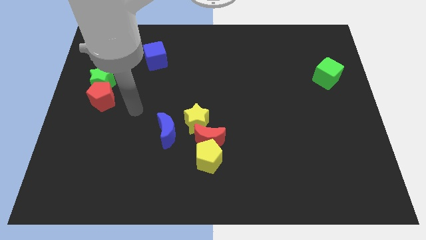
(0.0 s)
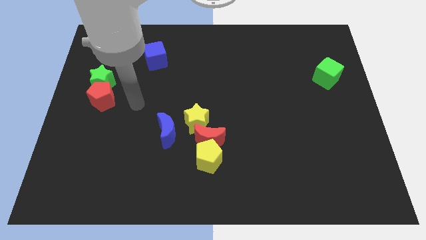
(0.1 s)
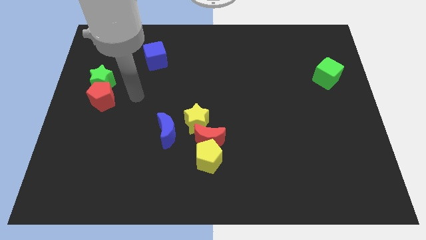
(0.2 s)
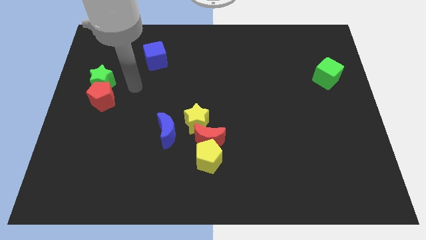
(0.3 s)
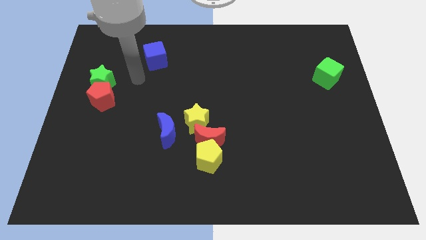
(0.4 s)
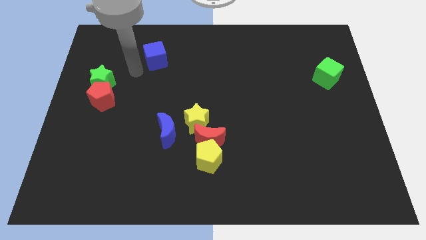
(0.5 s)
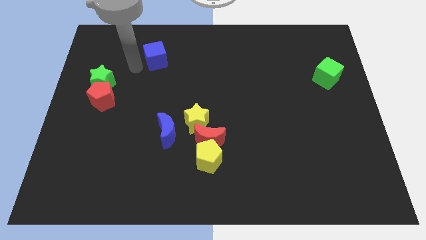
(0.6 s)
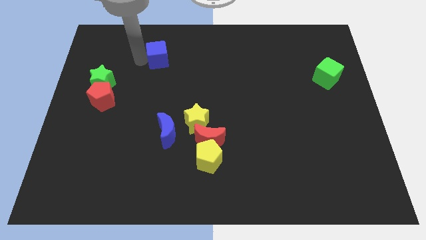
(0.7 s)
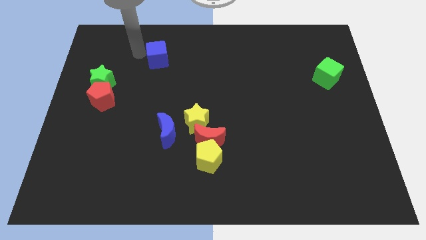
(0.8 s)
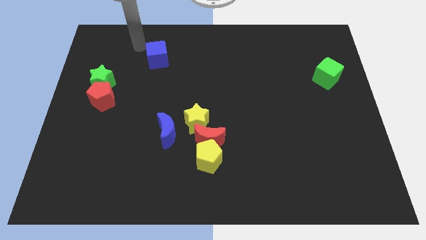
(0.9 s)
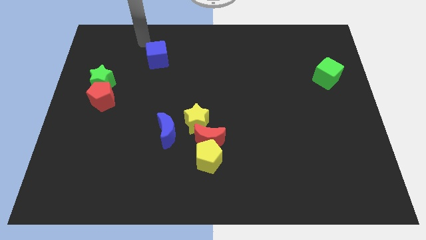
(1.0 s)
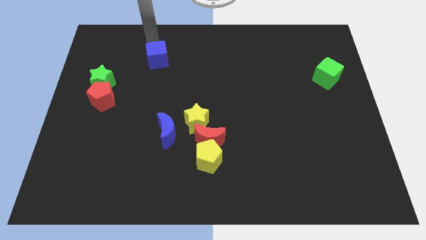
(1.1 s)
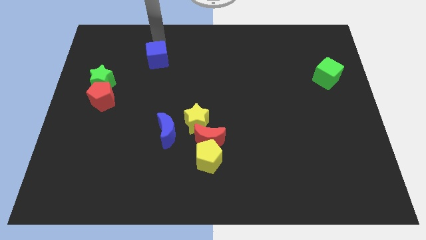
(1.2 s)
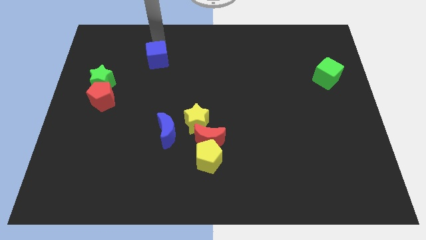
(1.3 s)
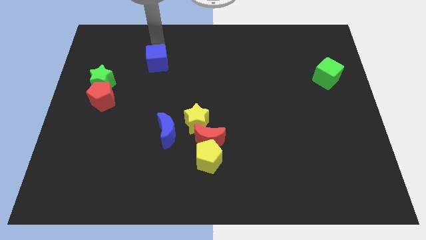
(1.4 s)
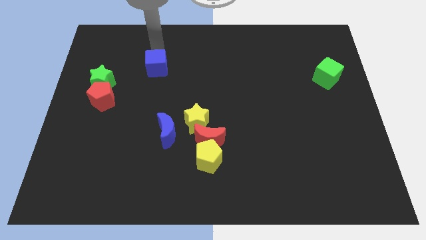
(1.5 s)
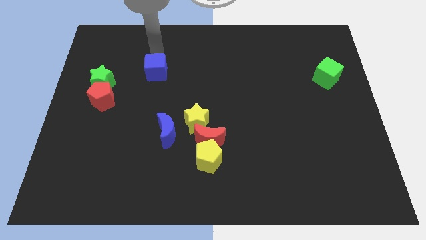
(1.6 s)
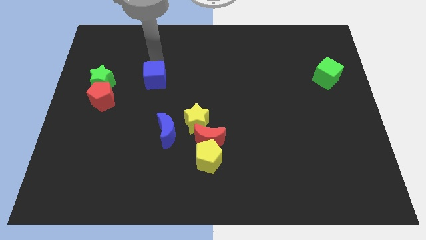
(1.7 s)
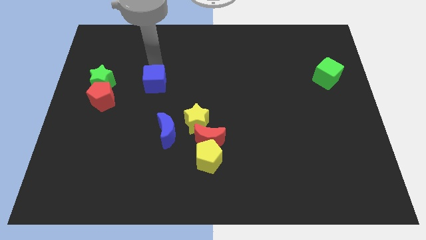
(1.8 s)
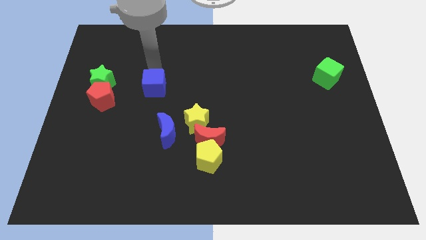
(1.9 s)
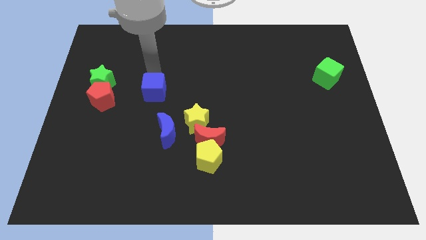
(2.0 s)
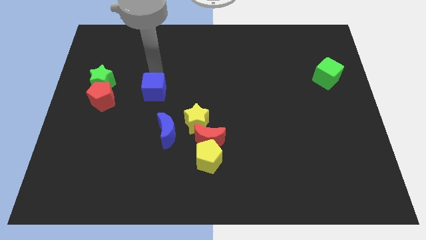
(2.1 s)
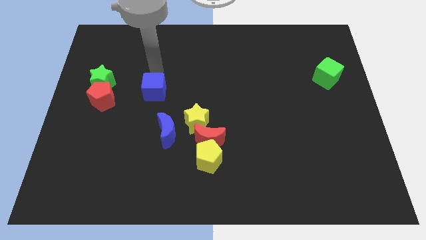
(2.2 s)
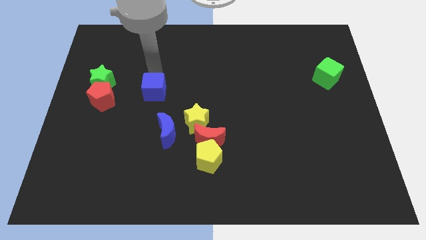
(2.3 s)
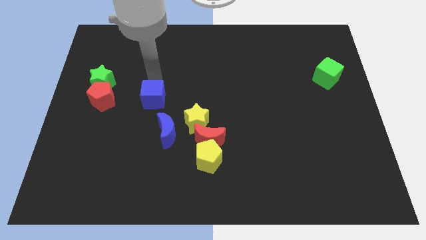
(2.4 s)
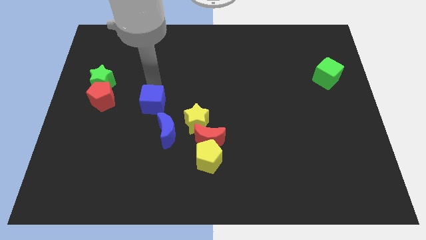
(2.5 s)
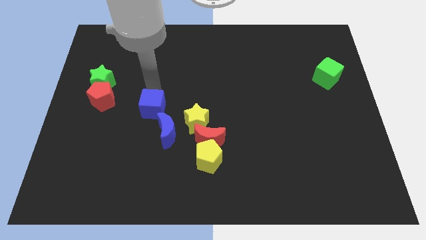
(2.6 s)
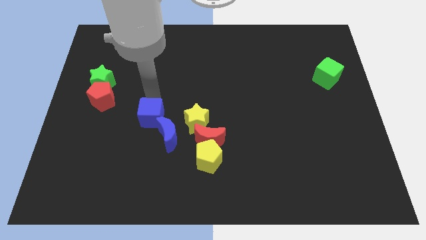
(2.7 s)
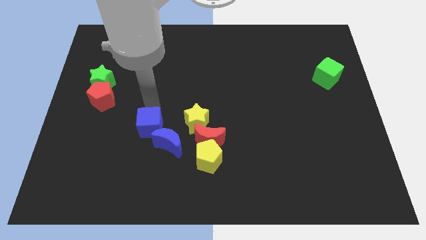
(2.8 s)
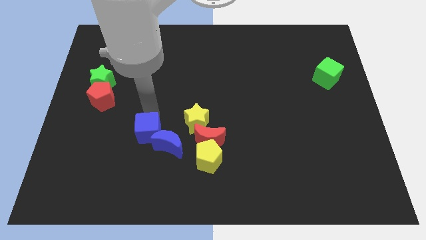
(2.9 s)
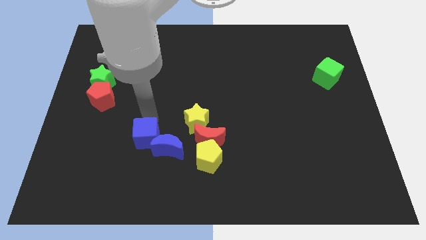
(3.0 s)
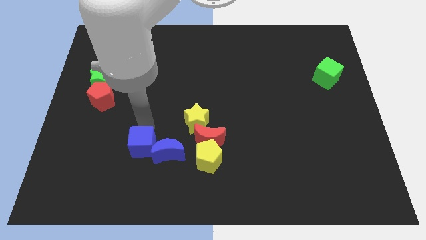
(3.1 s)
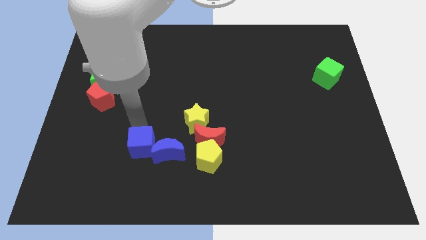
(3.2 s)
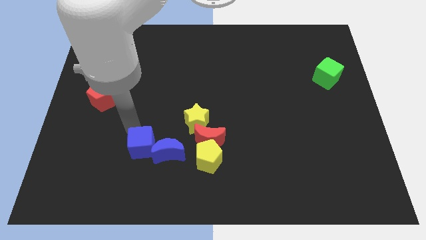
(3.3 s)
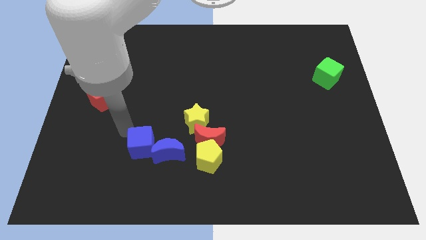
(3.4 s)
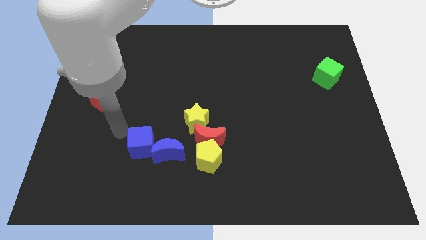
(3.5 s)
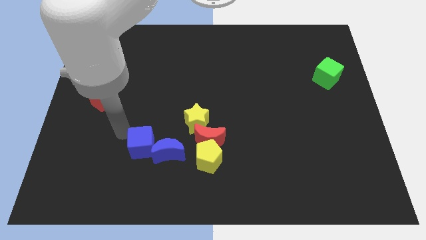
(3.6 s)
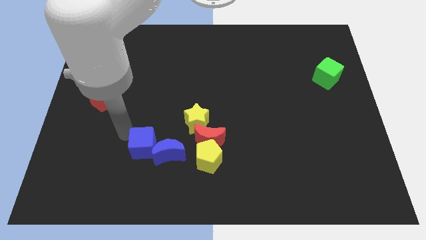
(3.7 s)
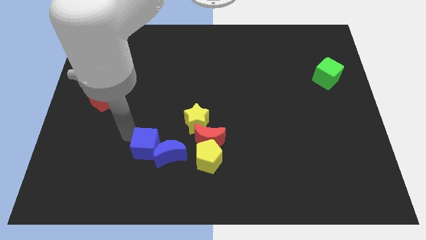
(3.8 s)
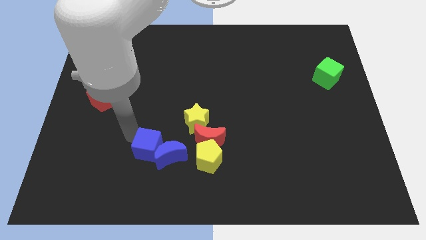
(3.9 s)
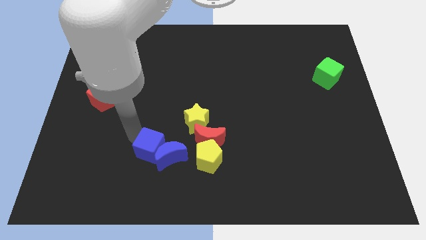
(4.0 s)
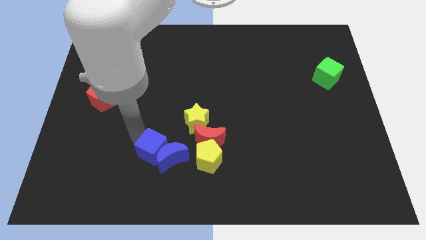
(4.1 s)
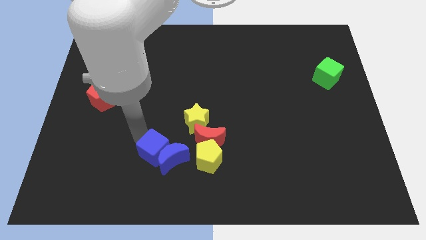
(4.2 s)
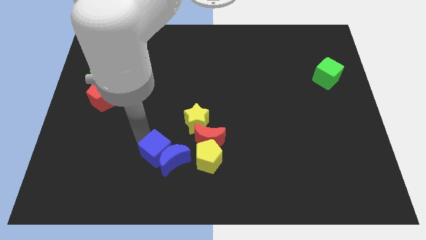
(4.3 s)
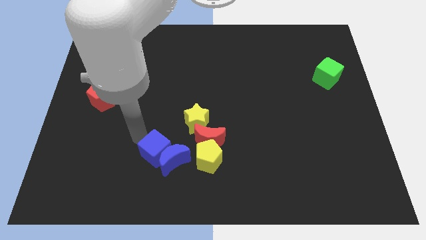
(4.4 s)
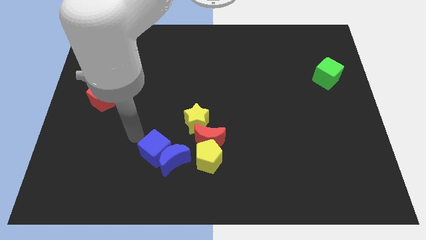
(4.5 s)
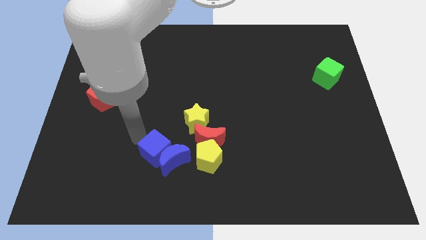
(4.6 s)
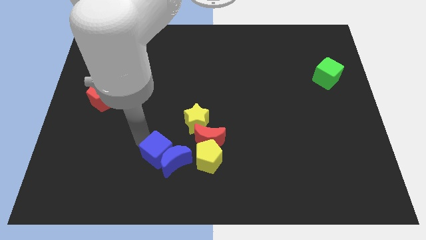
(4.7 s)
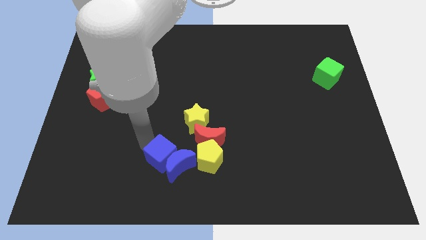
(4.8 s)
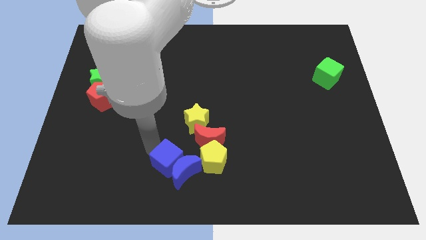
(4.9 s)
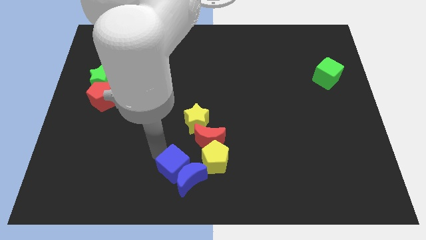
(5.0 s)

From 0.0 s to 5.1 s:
slide the blue cube to the bottom
